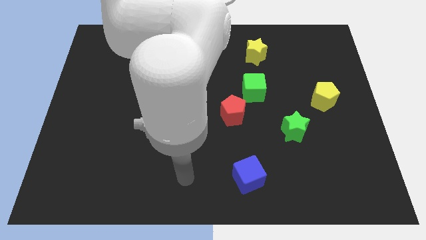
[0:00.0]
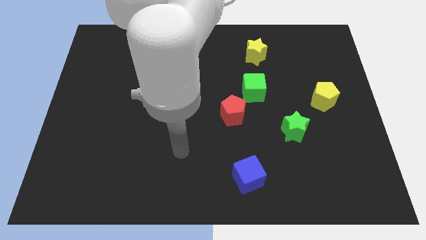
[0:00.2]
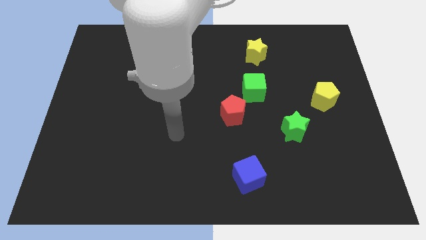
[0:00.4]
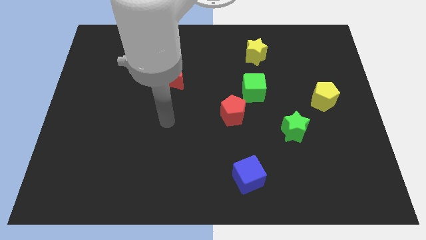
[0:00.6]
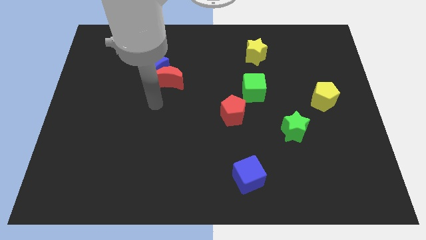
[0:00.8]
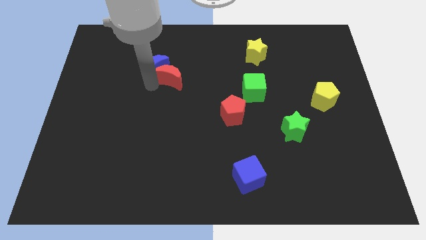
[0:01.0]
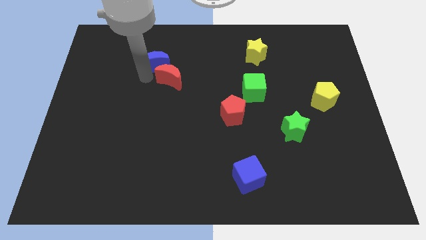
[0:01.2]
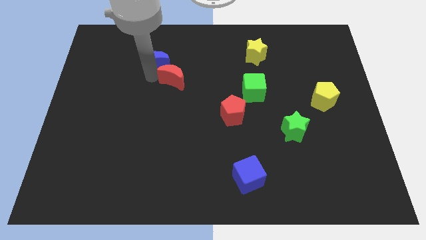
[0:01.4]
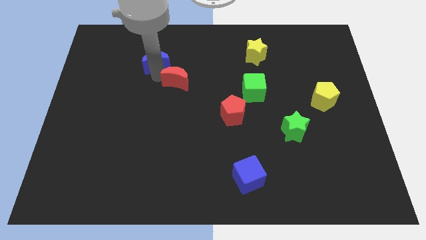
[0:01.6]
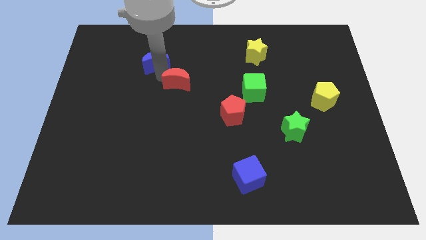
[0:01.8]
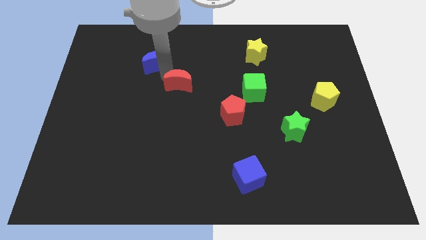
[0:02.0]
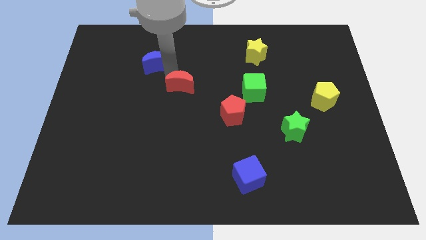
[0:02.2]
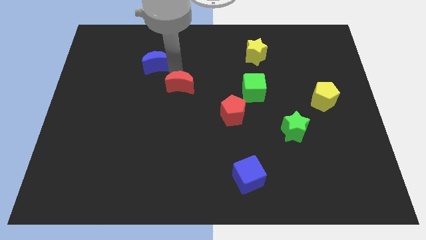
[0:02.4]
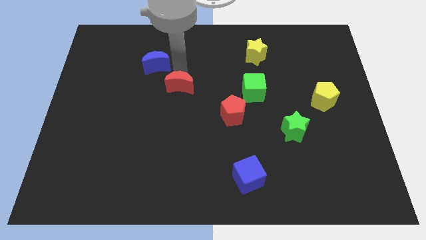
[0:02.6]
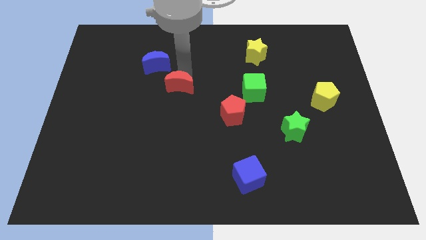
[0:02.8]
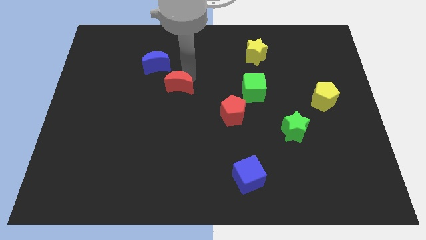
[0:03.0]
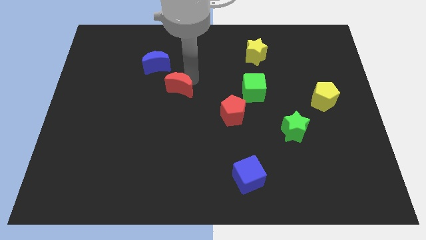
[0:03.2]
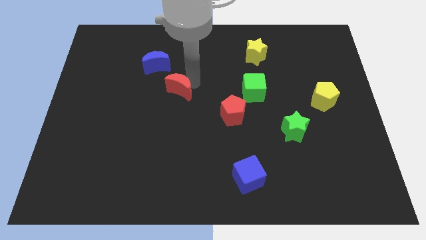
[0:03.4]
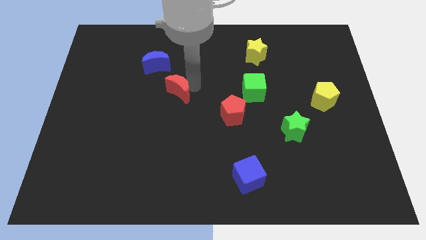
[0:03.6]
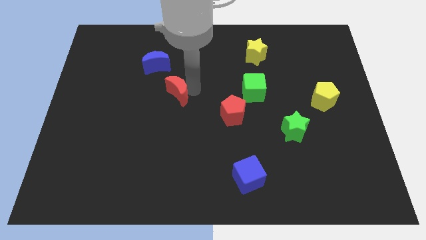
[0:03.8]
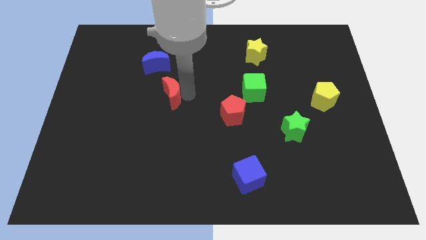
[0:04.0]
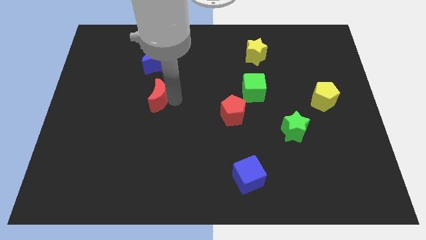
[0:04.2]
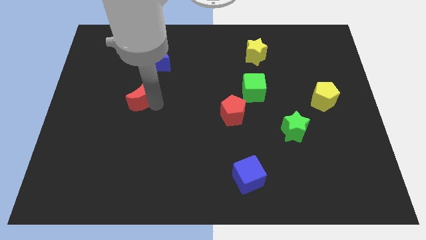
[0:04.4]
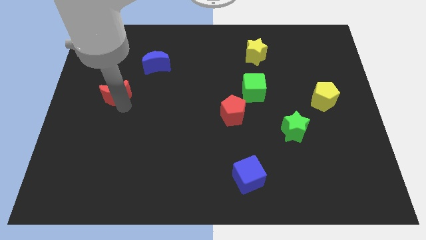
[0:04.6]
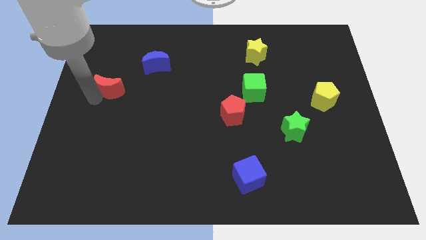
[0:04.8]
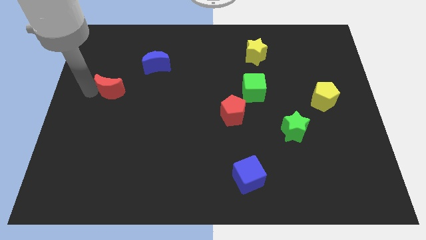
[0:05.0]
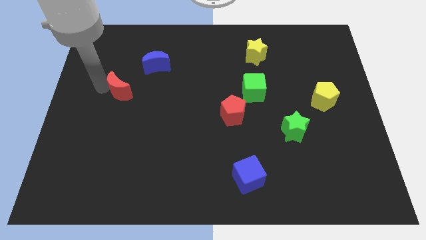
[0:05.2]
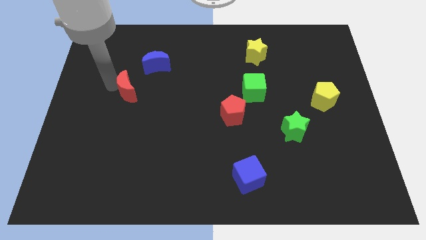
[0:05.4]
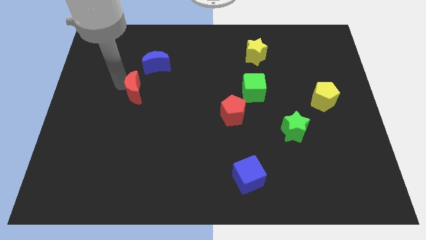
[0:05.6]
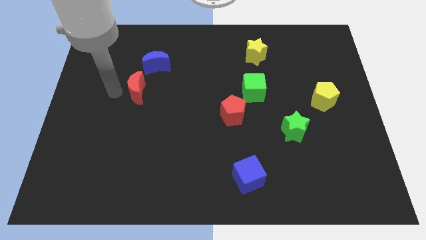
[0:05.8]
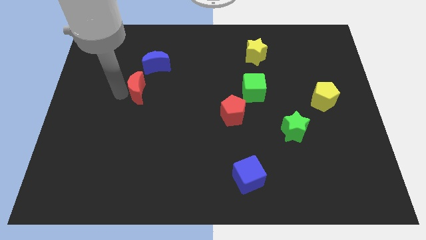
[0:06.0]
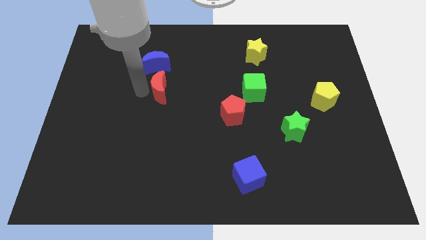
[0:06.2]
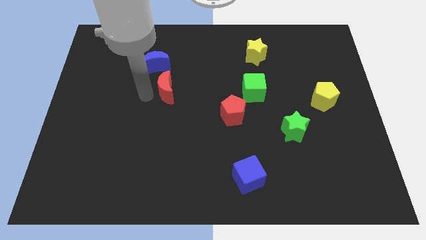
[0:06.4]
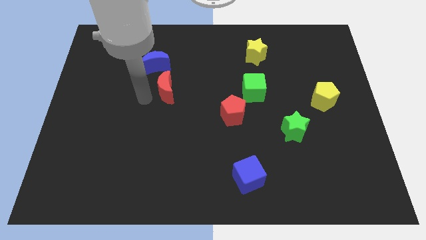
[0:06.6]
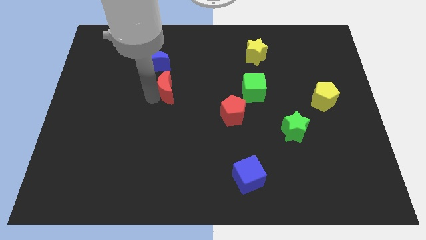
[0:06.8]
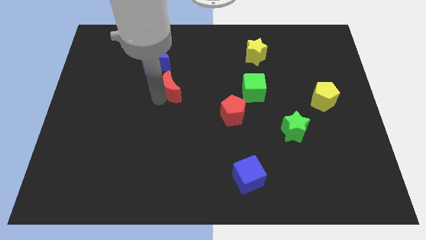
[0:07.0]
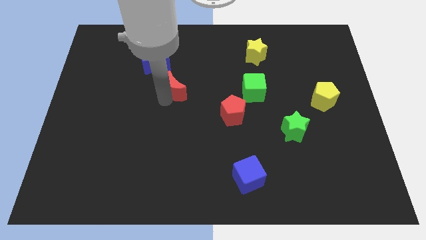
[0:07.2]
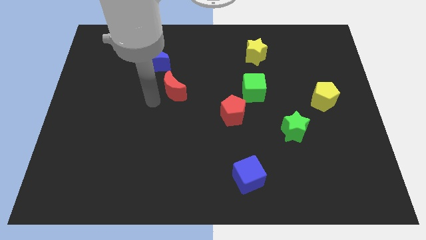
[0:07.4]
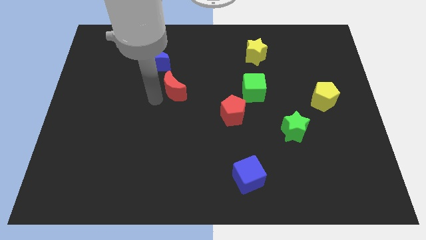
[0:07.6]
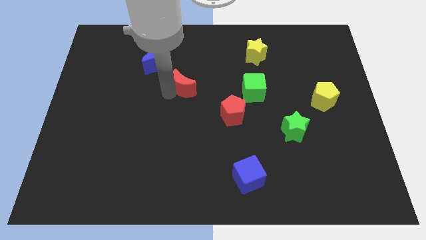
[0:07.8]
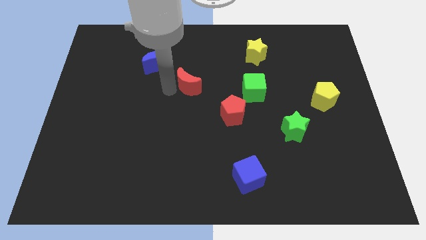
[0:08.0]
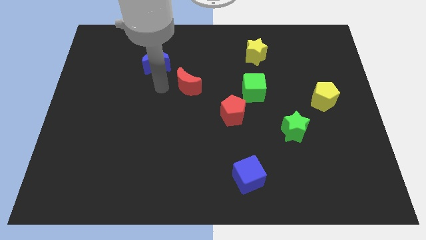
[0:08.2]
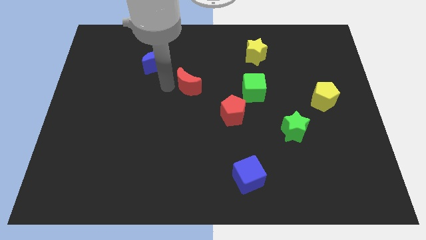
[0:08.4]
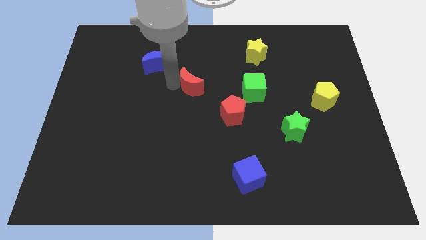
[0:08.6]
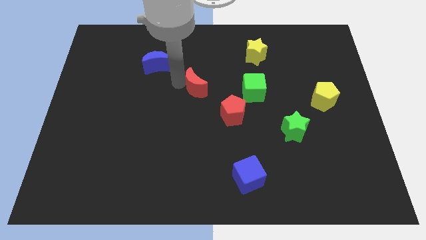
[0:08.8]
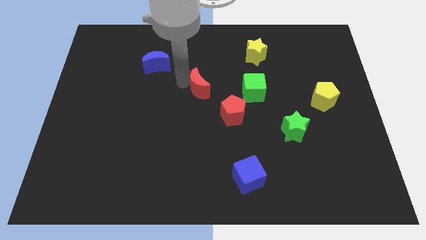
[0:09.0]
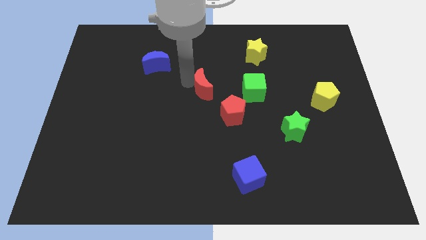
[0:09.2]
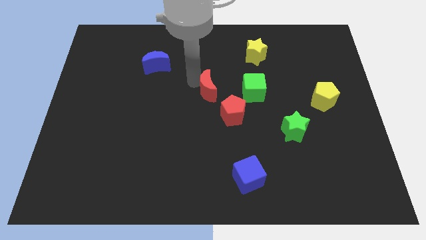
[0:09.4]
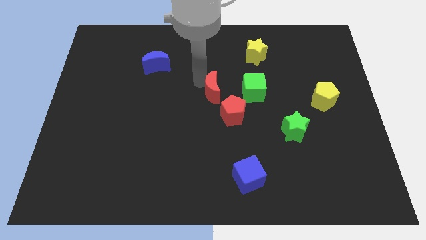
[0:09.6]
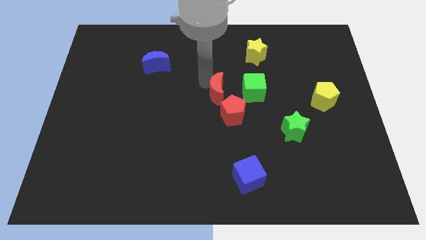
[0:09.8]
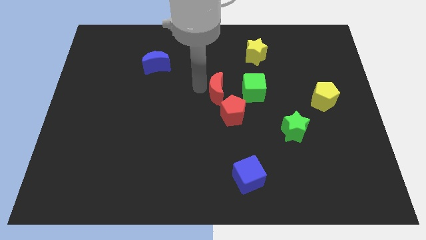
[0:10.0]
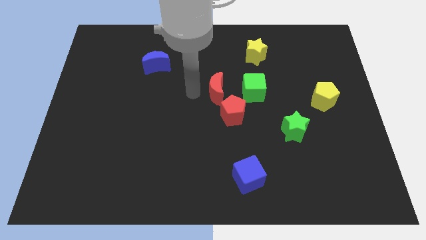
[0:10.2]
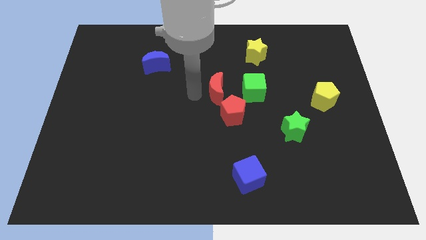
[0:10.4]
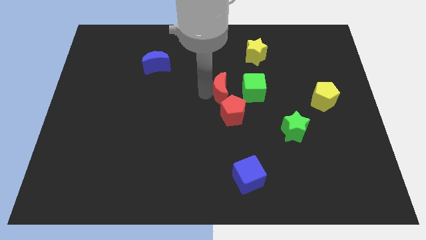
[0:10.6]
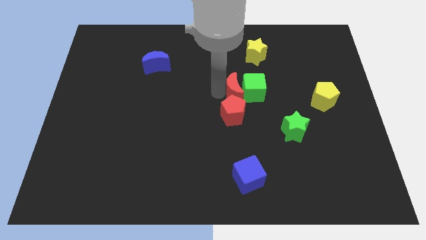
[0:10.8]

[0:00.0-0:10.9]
slide the red moon next to the green cube

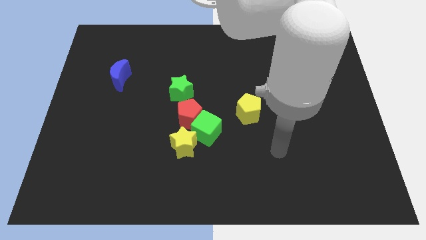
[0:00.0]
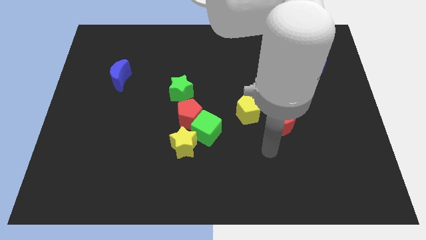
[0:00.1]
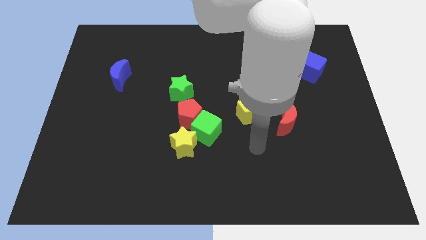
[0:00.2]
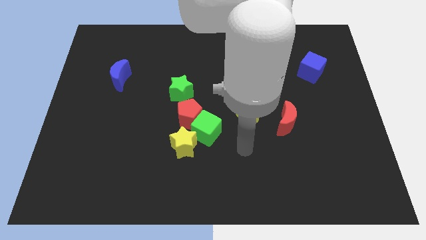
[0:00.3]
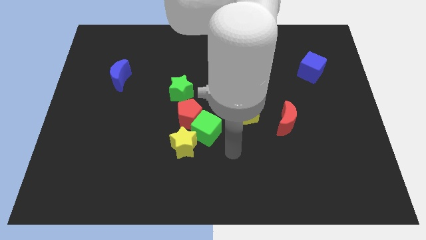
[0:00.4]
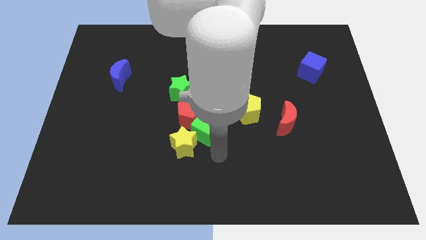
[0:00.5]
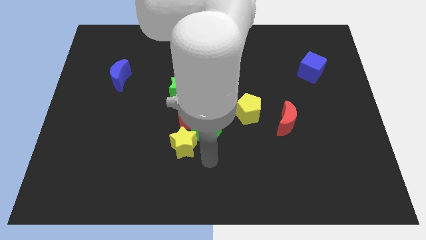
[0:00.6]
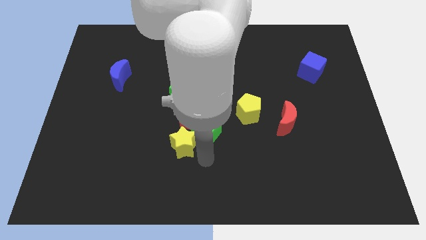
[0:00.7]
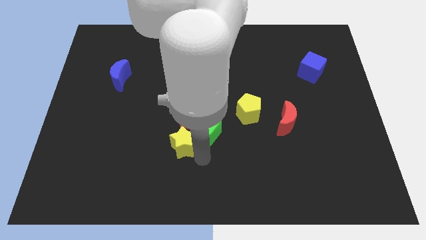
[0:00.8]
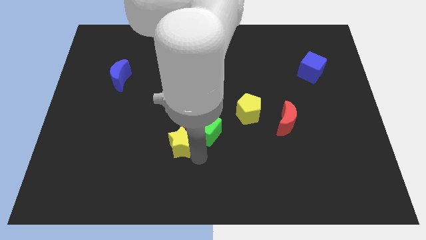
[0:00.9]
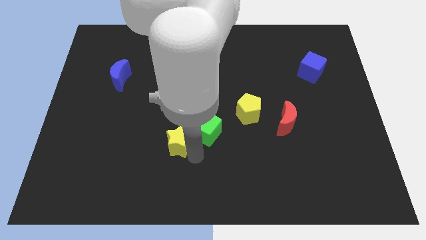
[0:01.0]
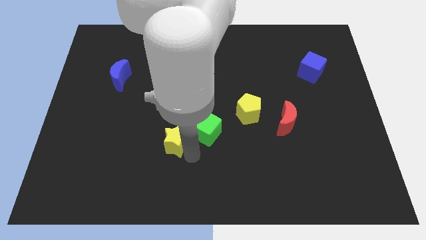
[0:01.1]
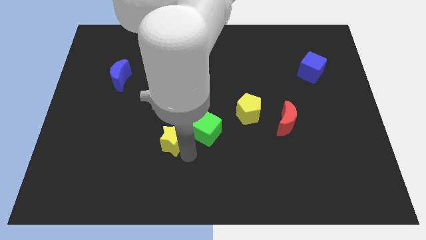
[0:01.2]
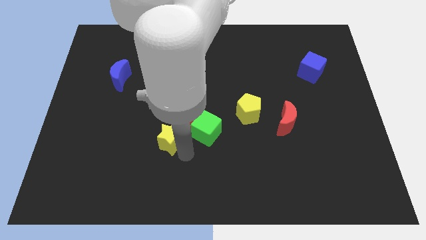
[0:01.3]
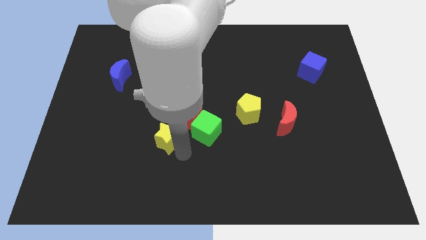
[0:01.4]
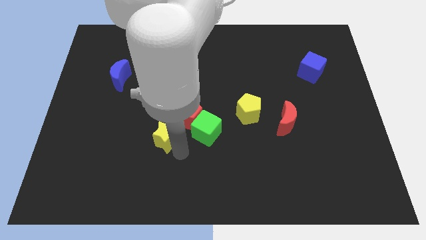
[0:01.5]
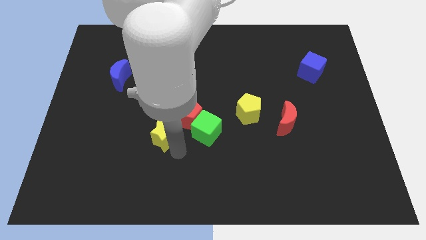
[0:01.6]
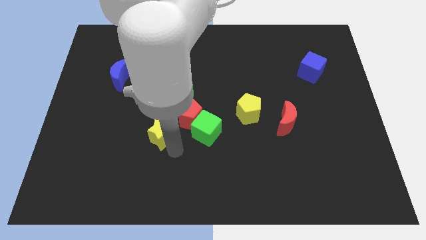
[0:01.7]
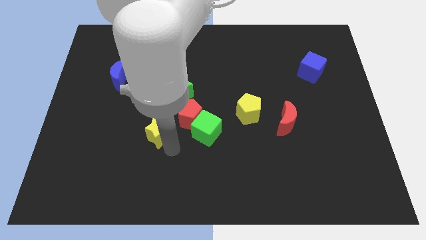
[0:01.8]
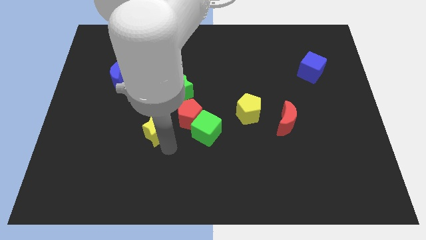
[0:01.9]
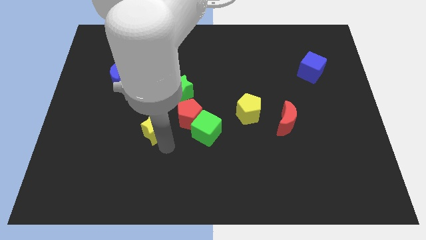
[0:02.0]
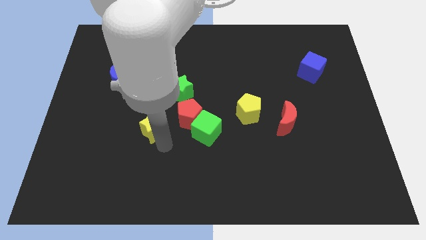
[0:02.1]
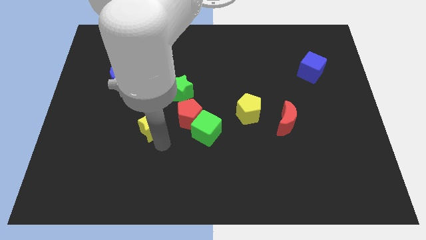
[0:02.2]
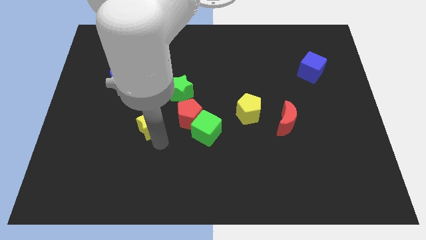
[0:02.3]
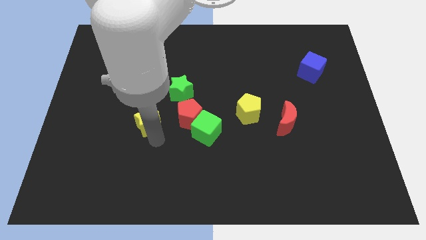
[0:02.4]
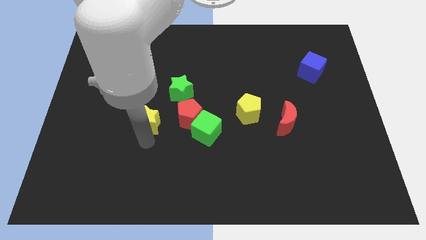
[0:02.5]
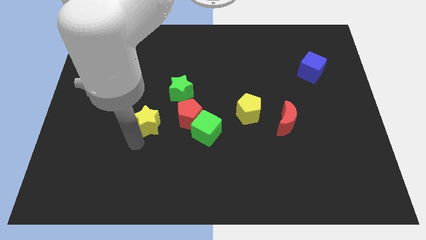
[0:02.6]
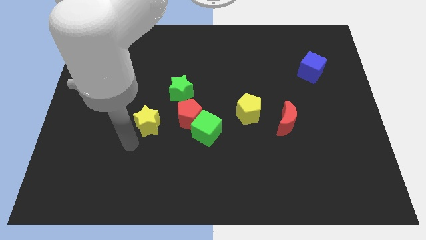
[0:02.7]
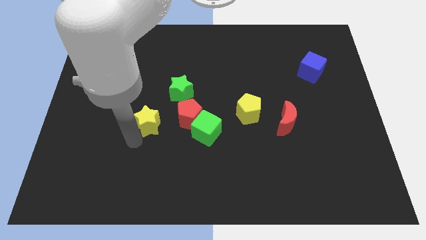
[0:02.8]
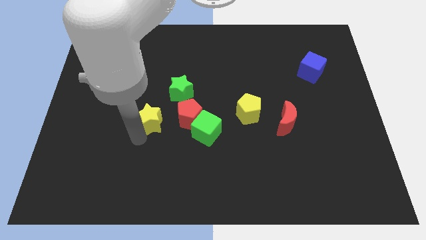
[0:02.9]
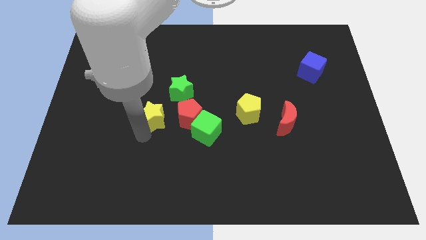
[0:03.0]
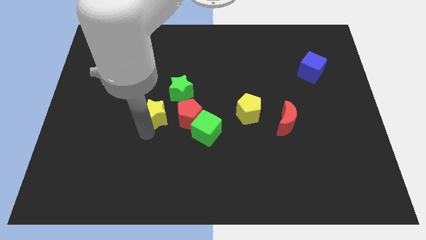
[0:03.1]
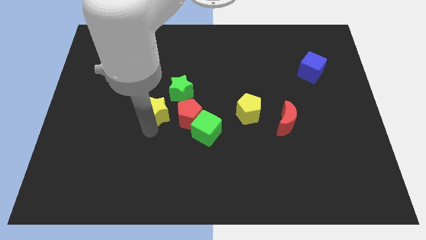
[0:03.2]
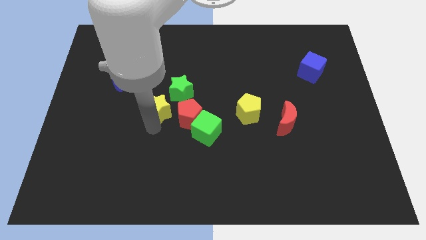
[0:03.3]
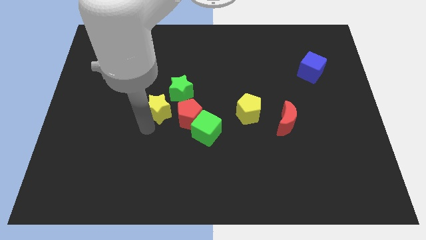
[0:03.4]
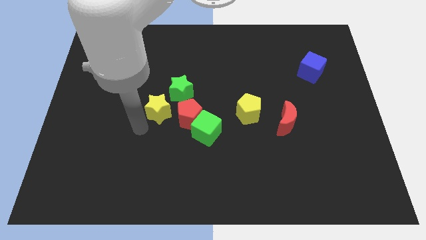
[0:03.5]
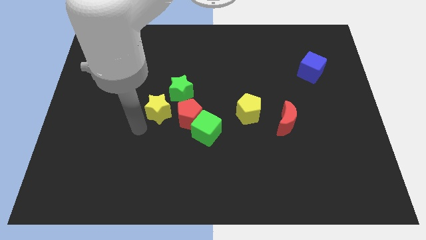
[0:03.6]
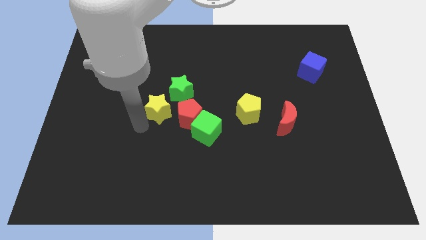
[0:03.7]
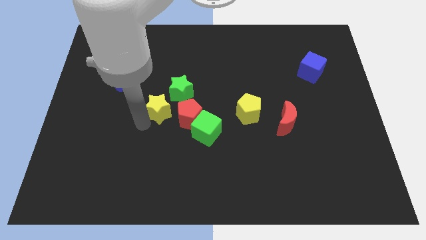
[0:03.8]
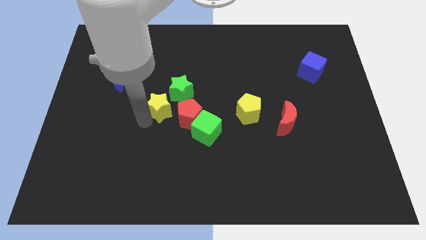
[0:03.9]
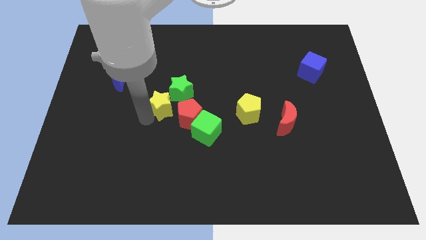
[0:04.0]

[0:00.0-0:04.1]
put the yellow star to the green star
